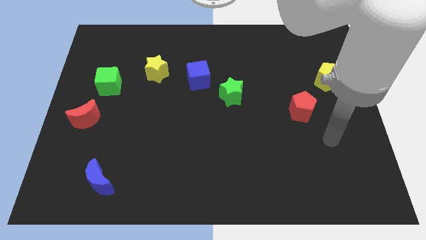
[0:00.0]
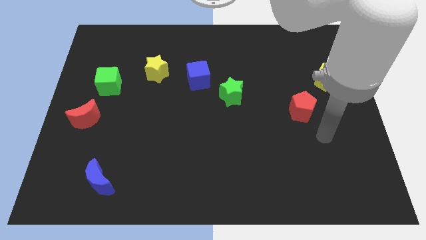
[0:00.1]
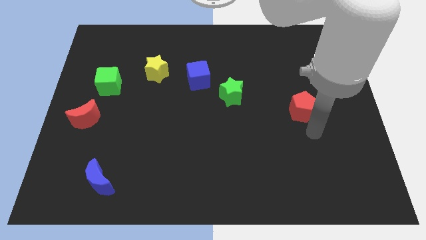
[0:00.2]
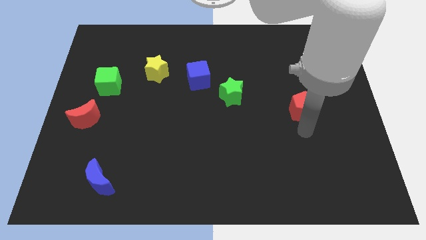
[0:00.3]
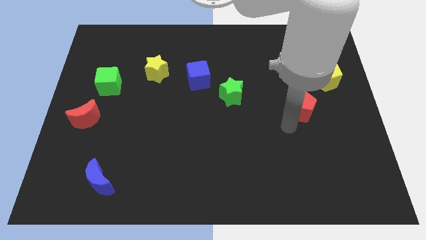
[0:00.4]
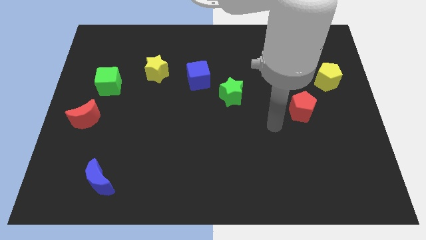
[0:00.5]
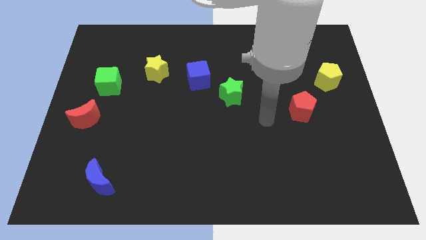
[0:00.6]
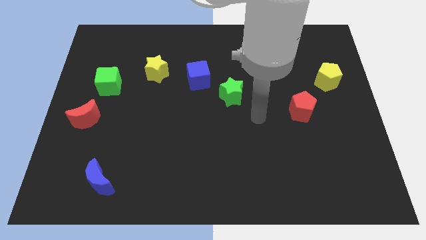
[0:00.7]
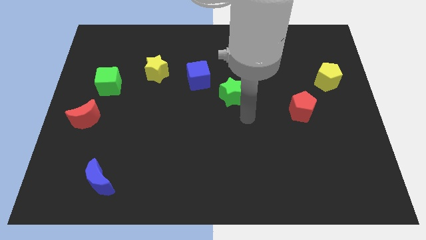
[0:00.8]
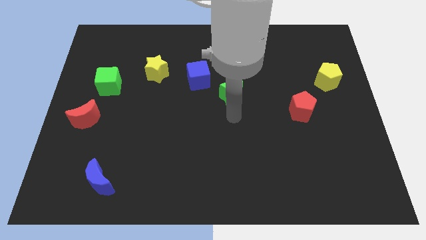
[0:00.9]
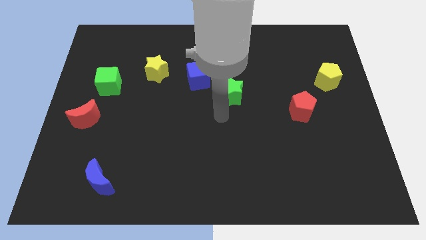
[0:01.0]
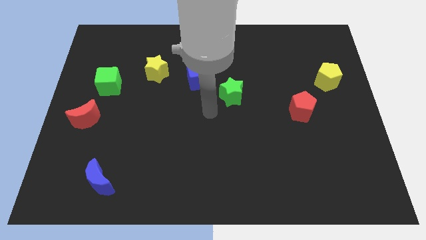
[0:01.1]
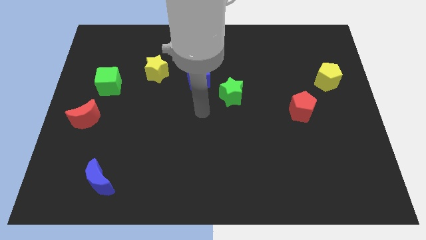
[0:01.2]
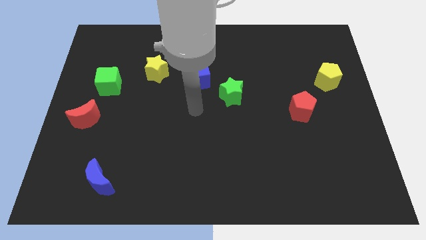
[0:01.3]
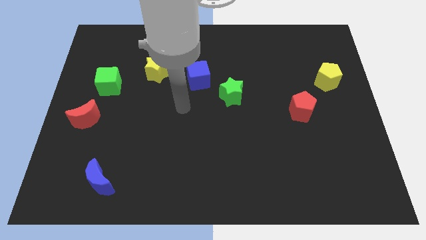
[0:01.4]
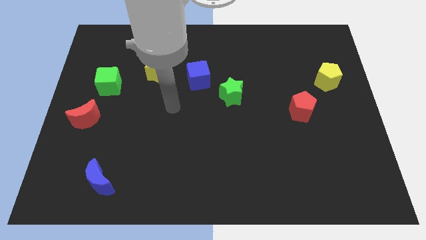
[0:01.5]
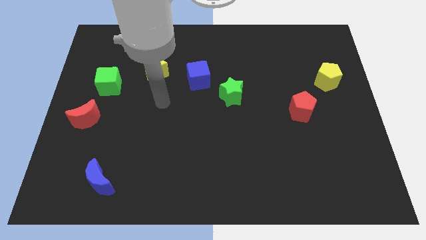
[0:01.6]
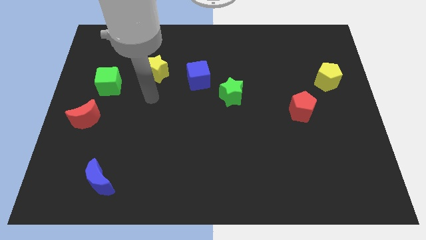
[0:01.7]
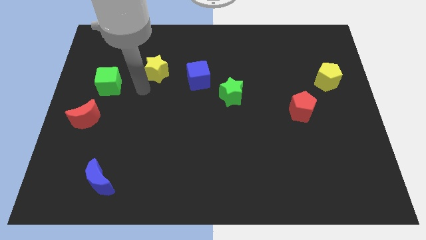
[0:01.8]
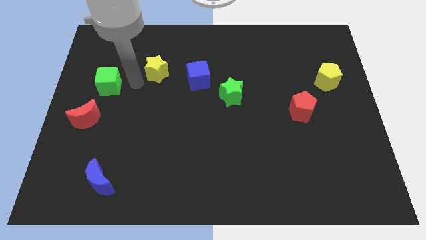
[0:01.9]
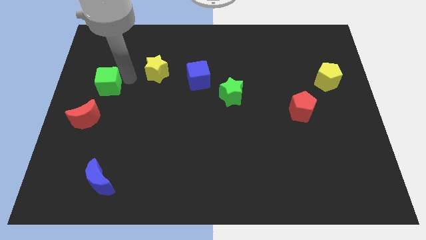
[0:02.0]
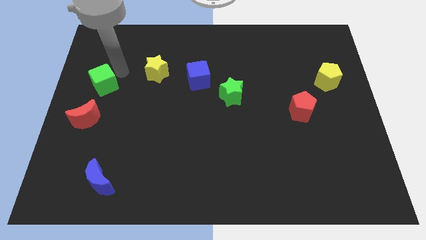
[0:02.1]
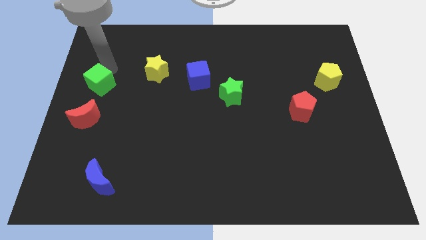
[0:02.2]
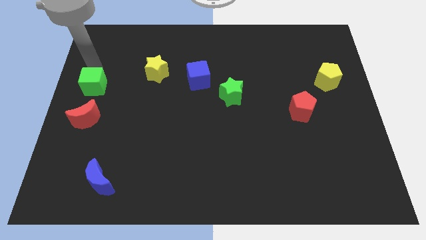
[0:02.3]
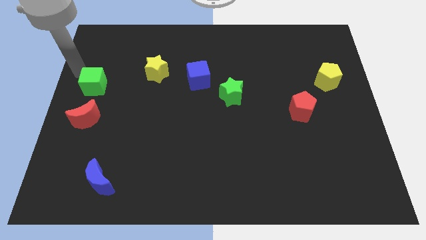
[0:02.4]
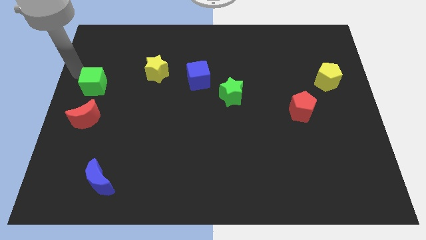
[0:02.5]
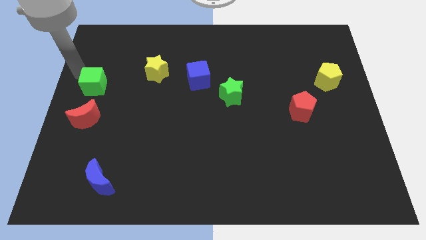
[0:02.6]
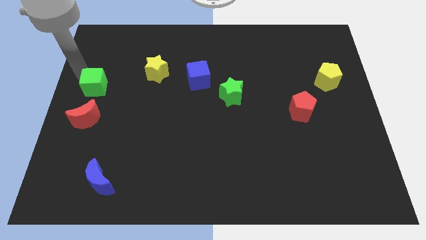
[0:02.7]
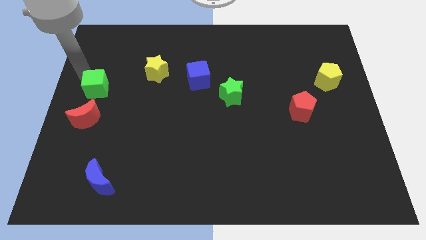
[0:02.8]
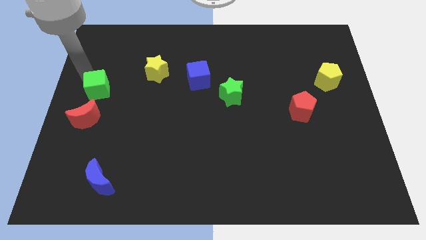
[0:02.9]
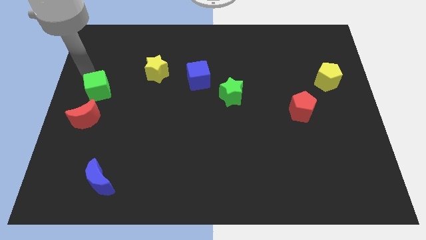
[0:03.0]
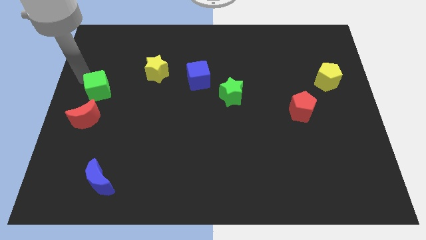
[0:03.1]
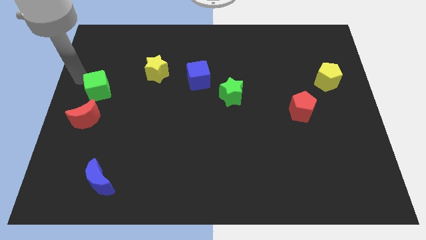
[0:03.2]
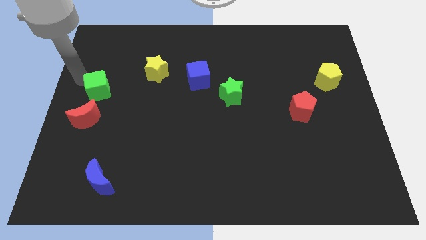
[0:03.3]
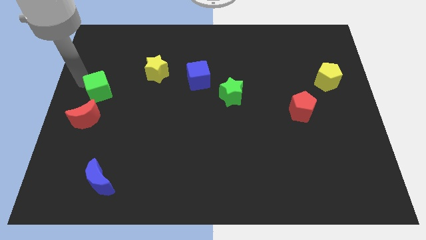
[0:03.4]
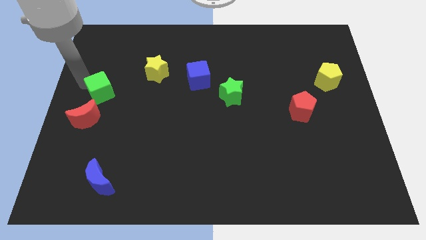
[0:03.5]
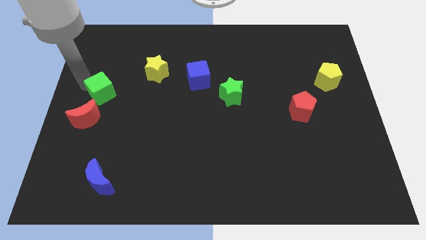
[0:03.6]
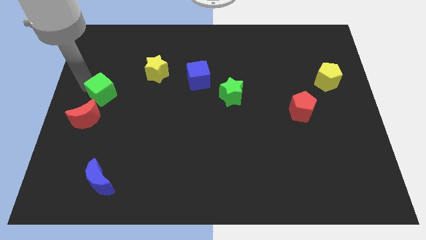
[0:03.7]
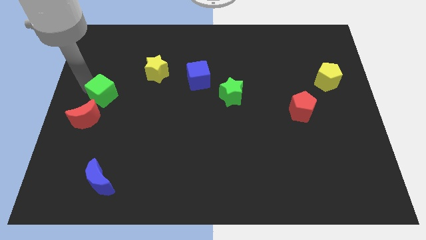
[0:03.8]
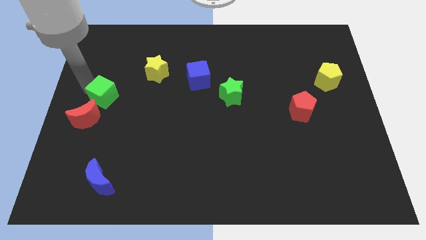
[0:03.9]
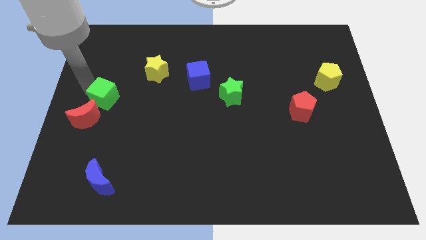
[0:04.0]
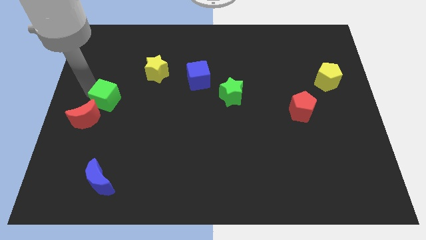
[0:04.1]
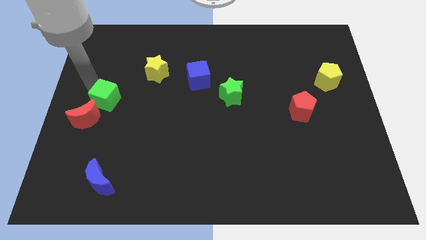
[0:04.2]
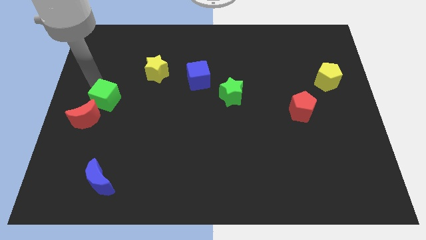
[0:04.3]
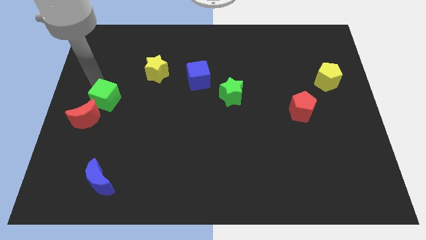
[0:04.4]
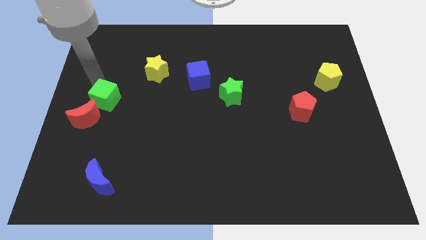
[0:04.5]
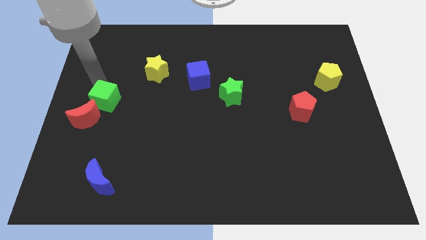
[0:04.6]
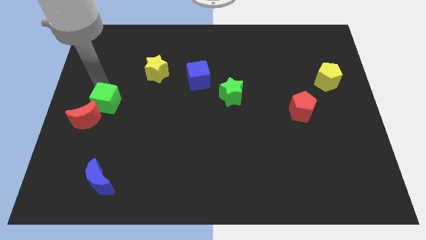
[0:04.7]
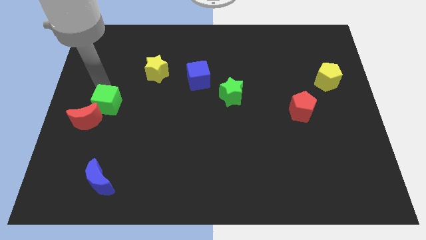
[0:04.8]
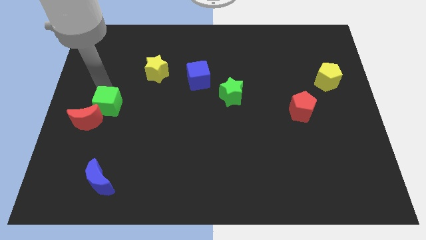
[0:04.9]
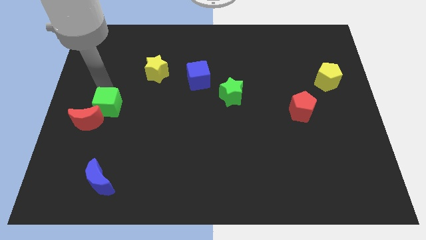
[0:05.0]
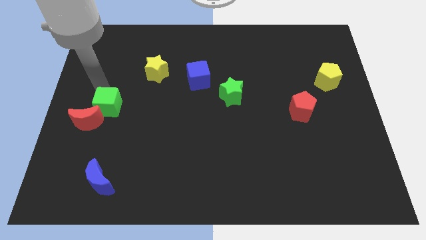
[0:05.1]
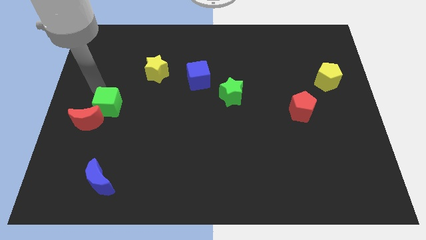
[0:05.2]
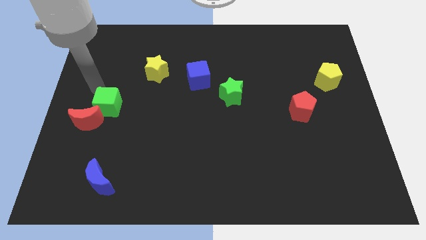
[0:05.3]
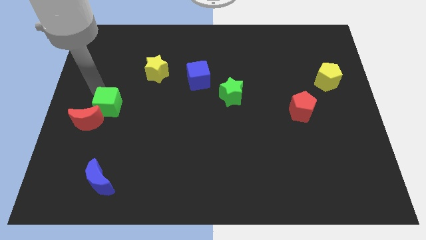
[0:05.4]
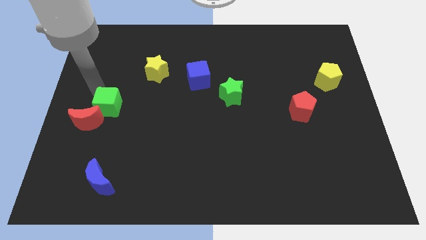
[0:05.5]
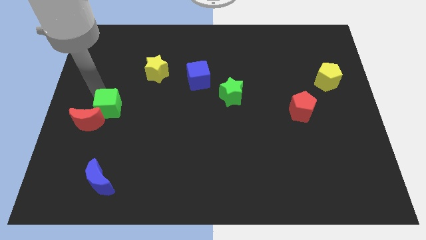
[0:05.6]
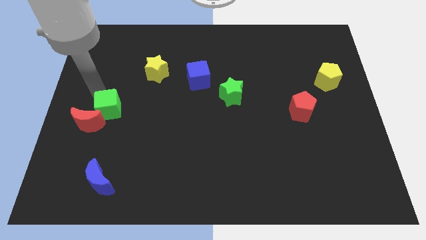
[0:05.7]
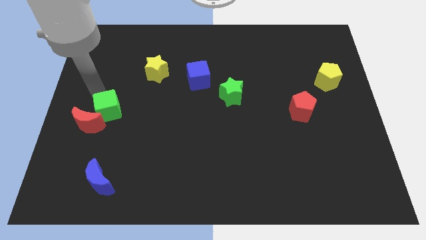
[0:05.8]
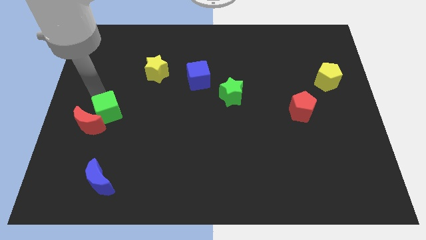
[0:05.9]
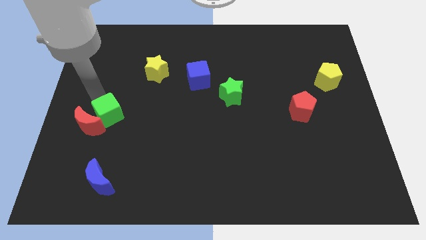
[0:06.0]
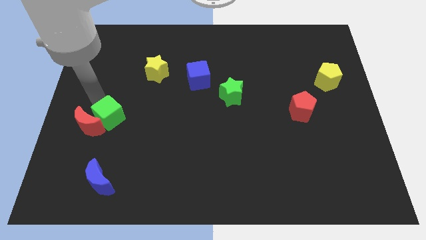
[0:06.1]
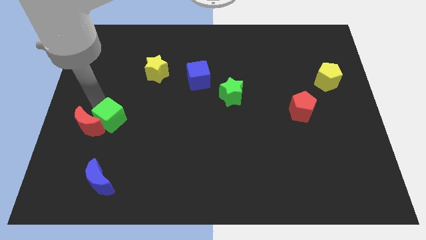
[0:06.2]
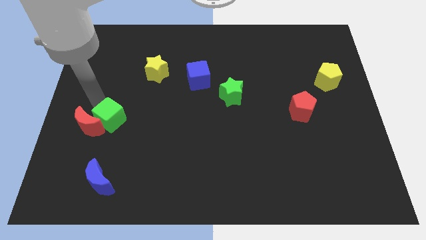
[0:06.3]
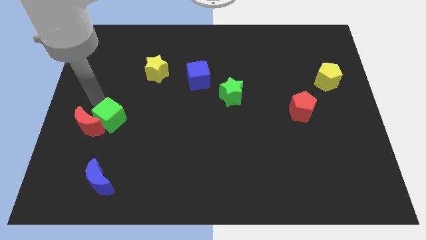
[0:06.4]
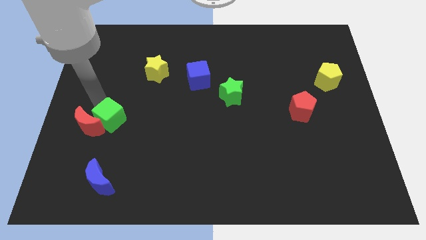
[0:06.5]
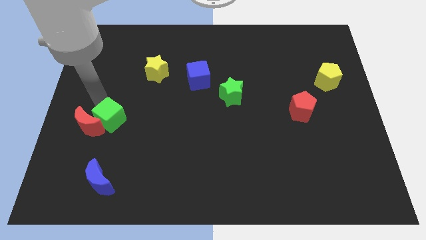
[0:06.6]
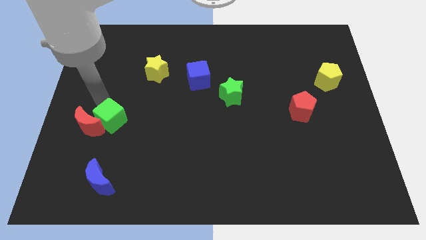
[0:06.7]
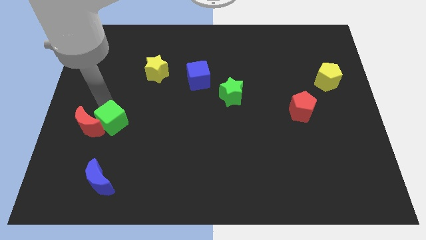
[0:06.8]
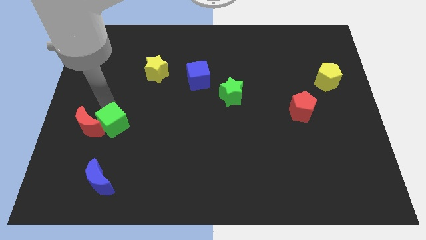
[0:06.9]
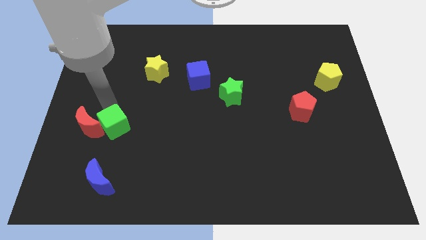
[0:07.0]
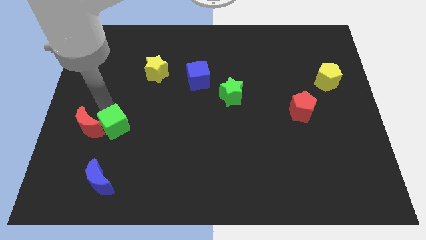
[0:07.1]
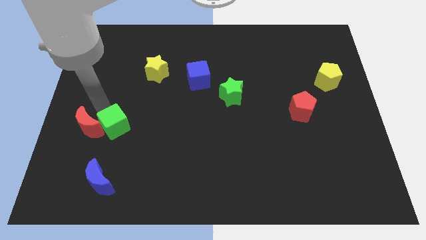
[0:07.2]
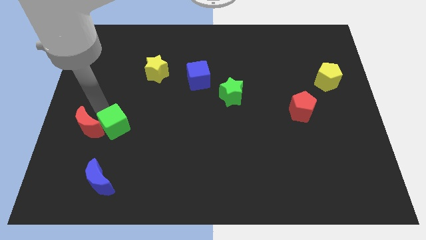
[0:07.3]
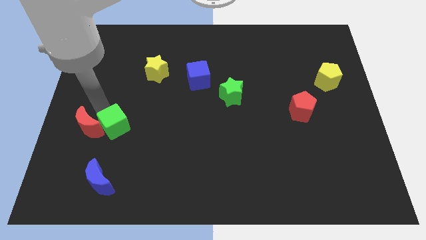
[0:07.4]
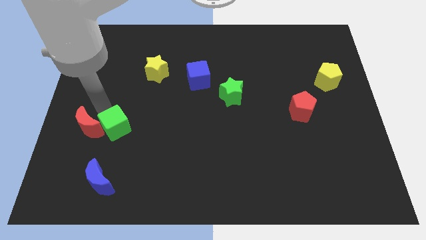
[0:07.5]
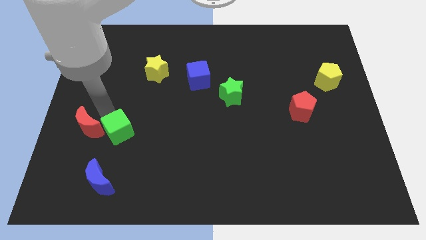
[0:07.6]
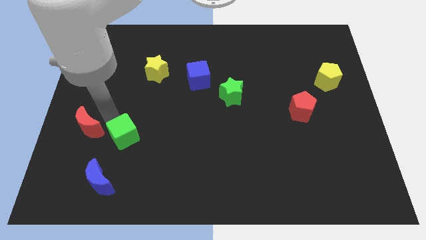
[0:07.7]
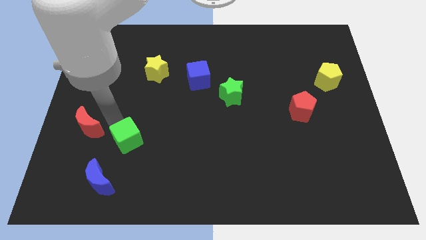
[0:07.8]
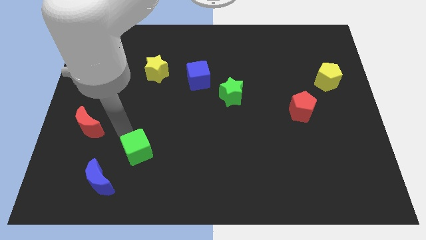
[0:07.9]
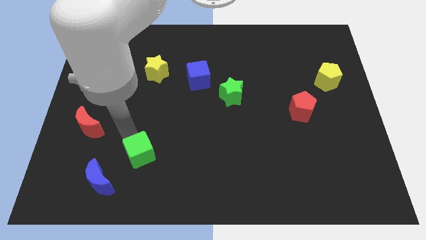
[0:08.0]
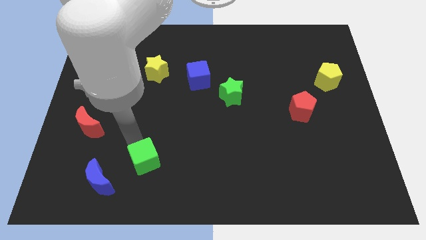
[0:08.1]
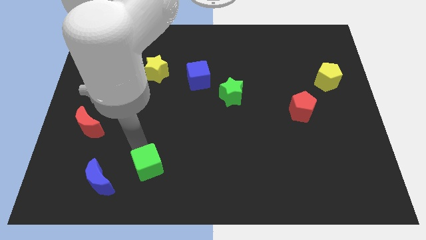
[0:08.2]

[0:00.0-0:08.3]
put the green cube just right of the blue moon
